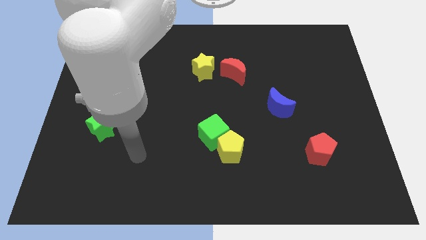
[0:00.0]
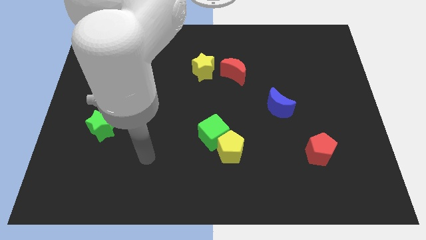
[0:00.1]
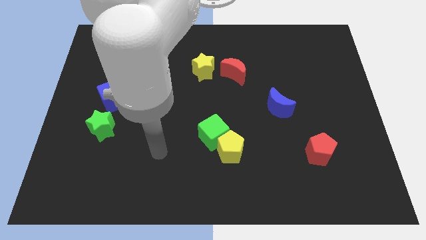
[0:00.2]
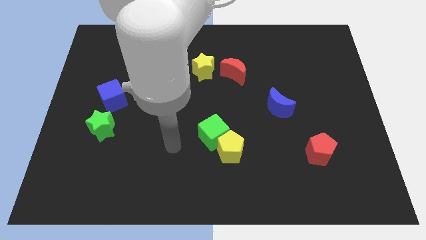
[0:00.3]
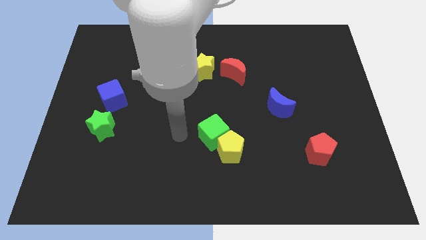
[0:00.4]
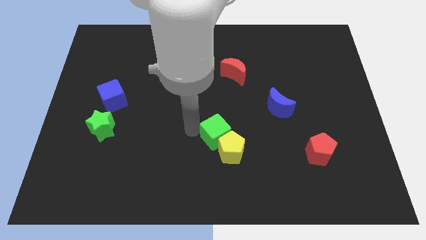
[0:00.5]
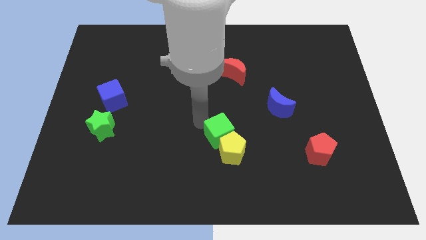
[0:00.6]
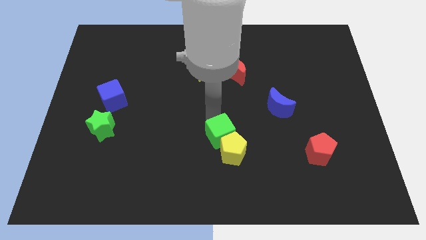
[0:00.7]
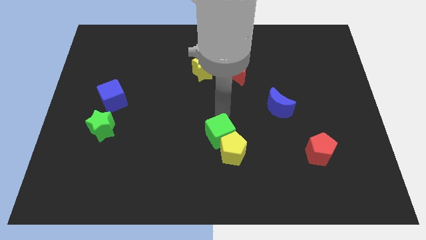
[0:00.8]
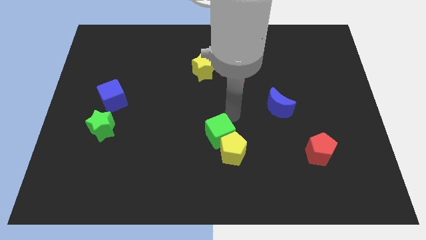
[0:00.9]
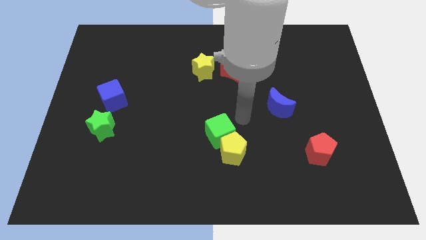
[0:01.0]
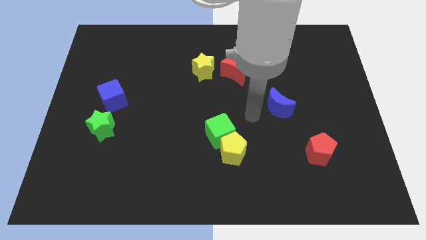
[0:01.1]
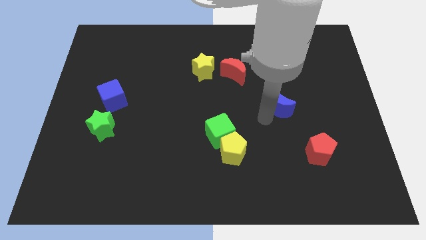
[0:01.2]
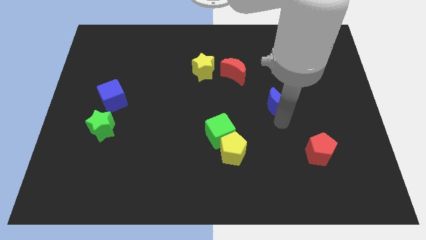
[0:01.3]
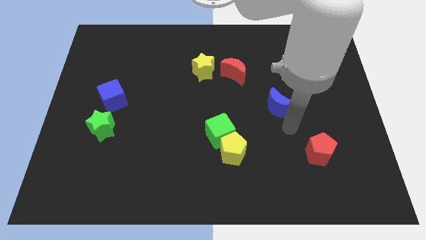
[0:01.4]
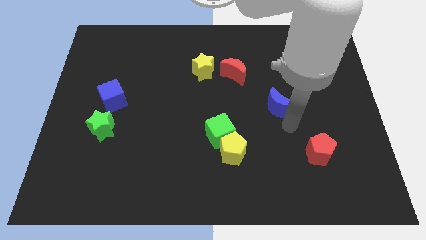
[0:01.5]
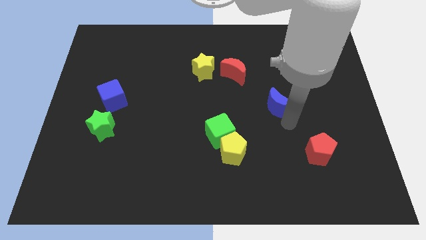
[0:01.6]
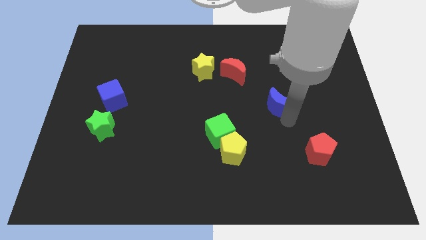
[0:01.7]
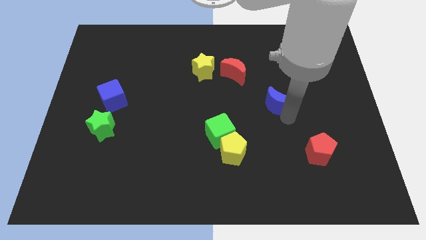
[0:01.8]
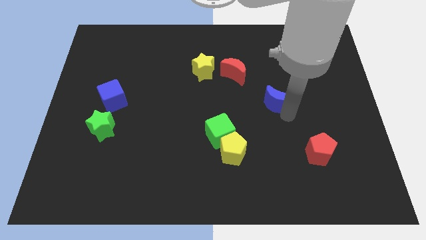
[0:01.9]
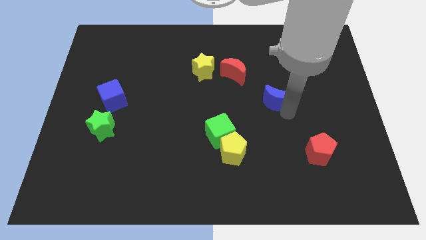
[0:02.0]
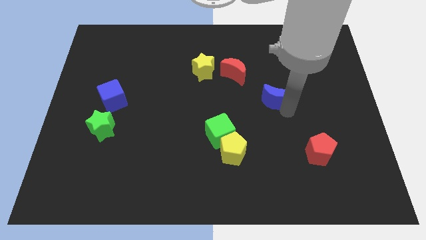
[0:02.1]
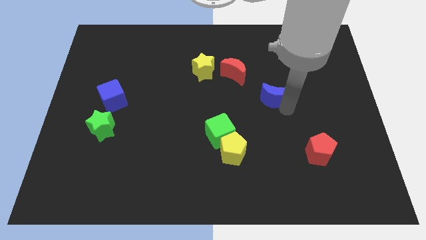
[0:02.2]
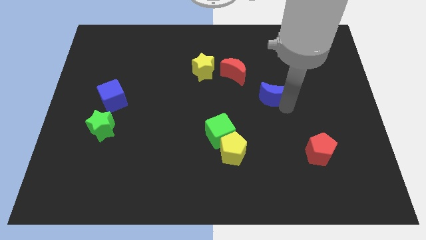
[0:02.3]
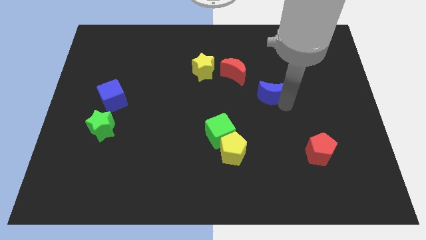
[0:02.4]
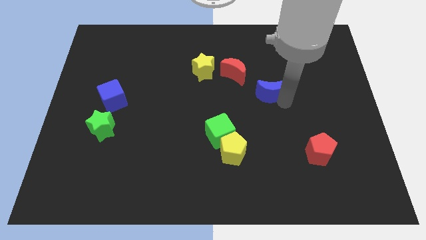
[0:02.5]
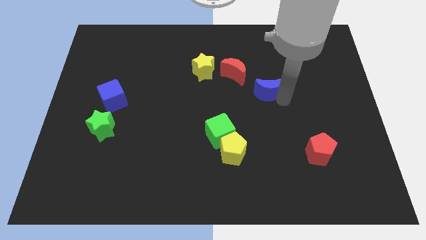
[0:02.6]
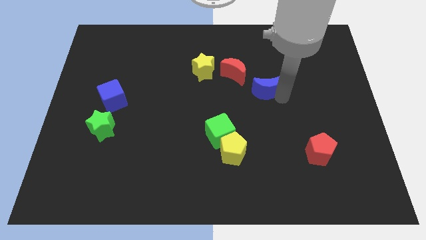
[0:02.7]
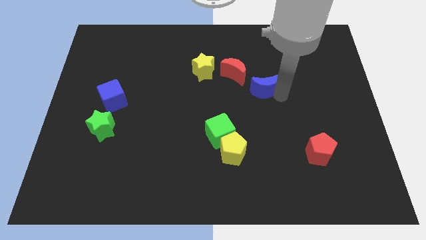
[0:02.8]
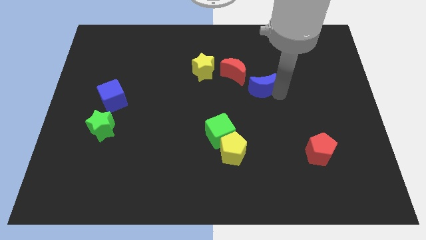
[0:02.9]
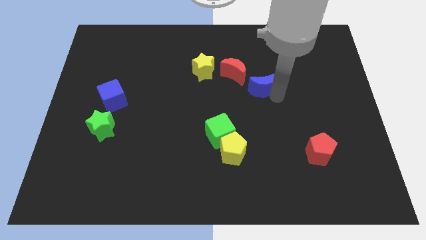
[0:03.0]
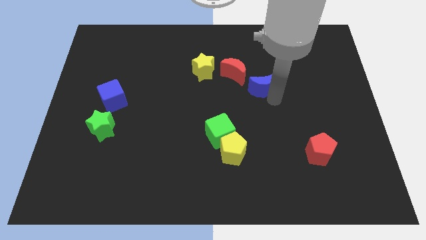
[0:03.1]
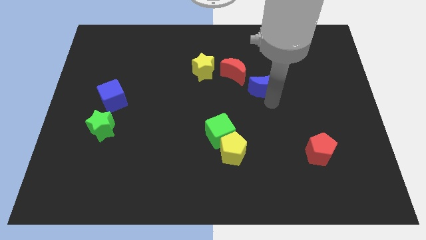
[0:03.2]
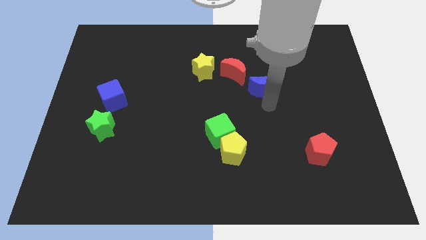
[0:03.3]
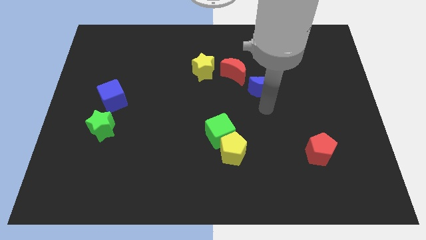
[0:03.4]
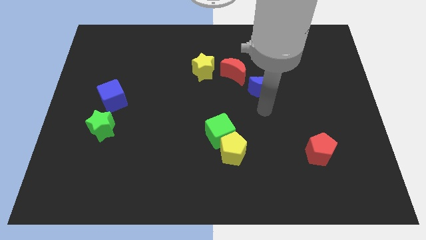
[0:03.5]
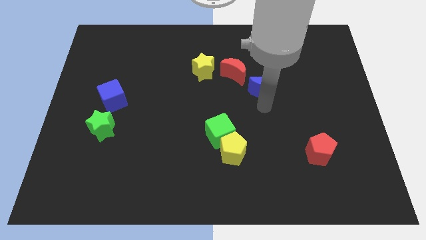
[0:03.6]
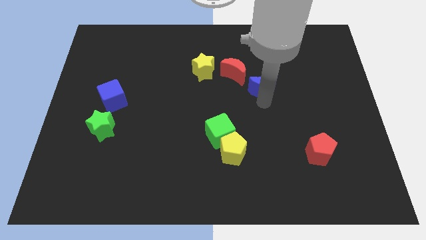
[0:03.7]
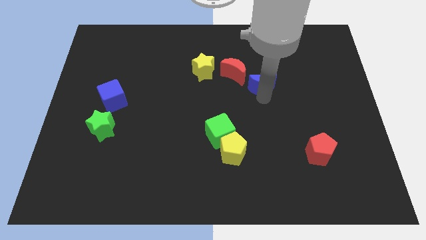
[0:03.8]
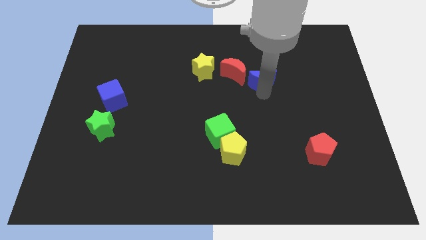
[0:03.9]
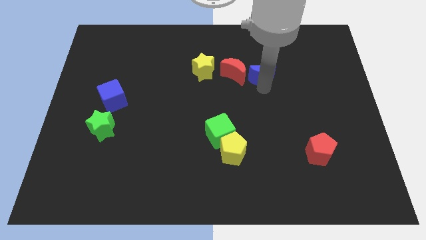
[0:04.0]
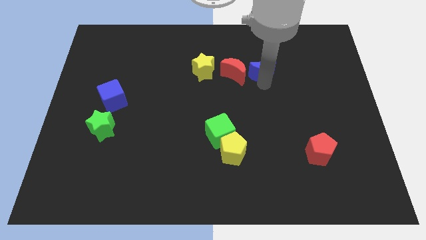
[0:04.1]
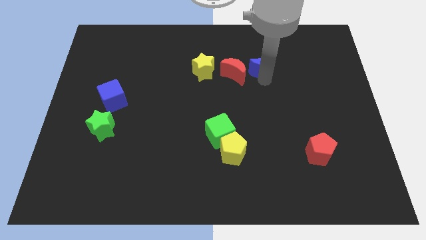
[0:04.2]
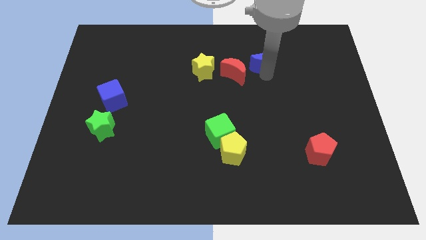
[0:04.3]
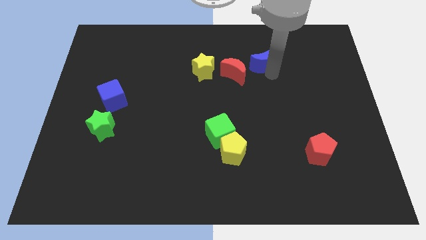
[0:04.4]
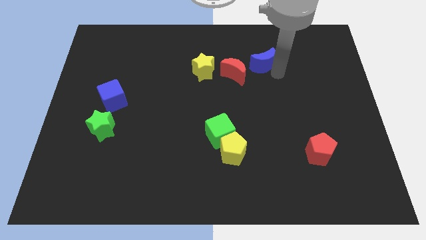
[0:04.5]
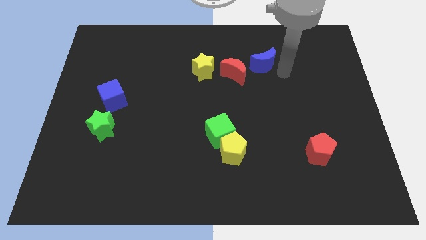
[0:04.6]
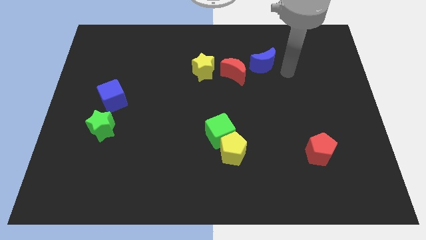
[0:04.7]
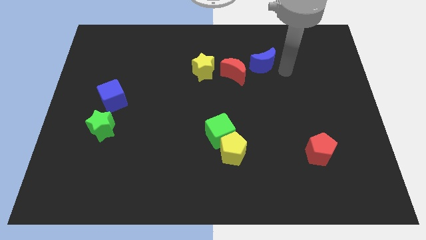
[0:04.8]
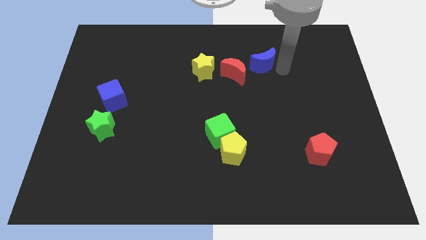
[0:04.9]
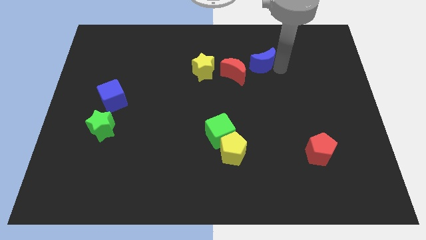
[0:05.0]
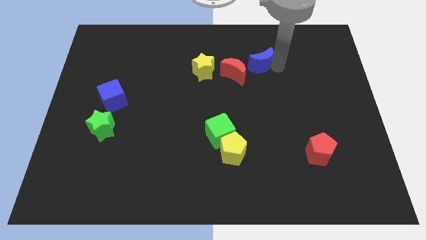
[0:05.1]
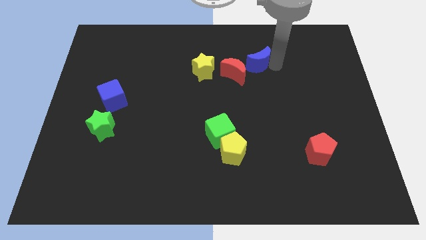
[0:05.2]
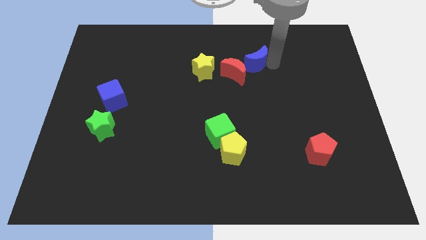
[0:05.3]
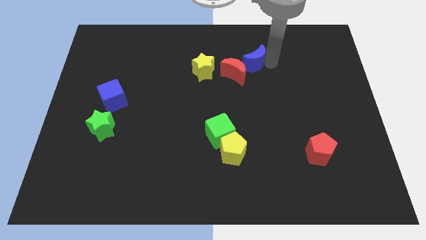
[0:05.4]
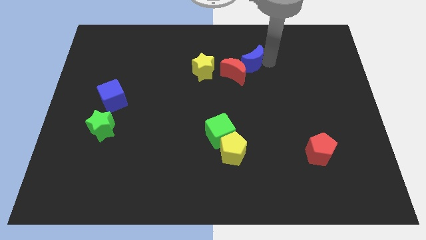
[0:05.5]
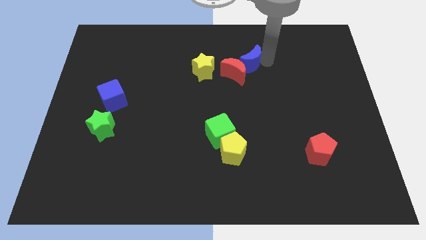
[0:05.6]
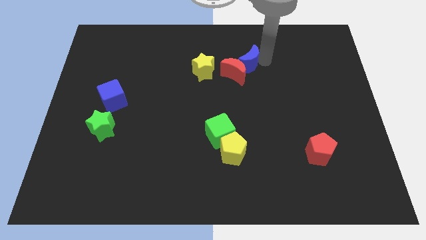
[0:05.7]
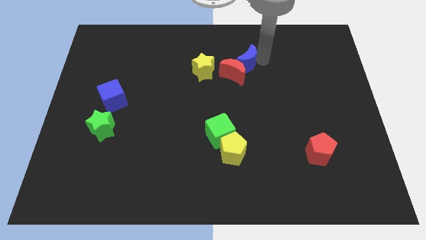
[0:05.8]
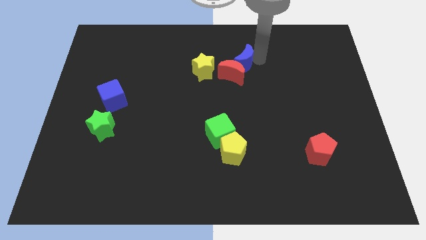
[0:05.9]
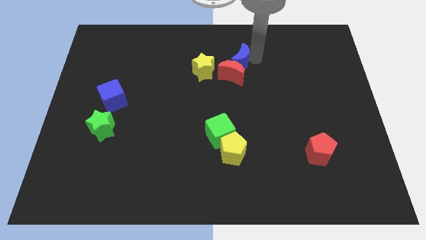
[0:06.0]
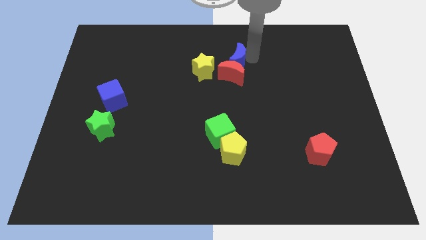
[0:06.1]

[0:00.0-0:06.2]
move the blue moon to the top left of the red moon

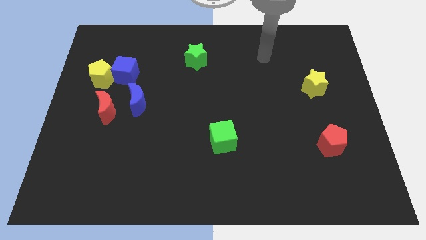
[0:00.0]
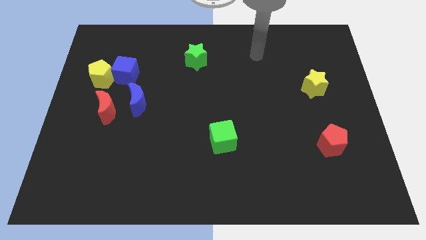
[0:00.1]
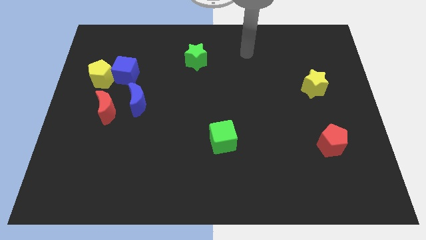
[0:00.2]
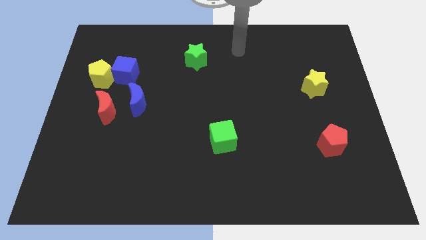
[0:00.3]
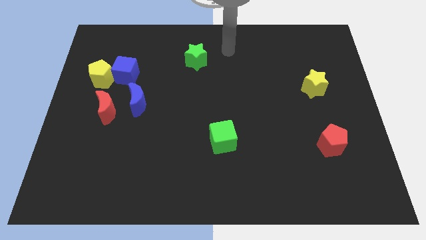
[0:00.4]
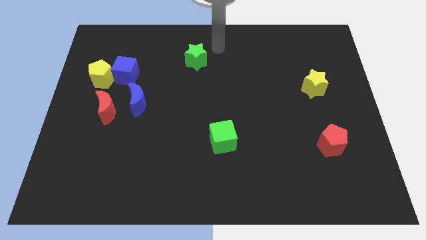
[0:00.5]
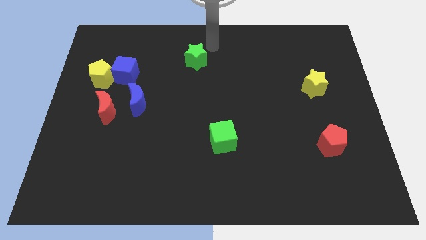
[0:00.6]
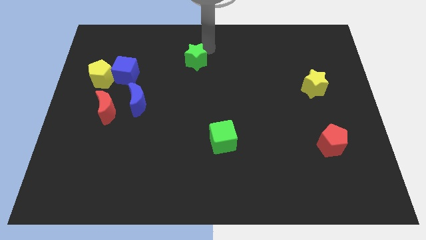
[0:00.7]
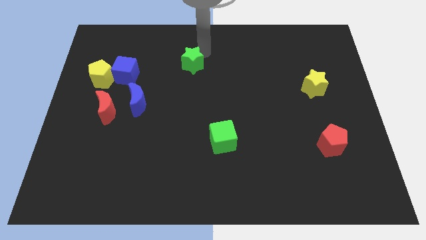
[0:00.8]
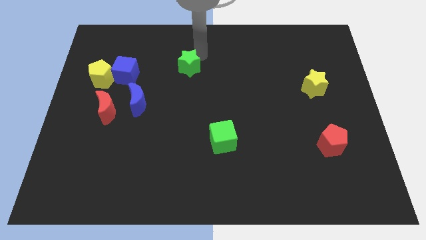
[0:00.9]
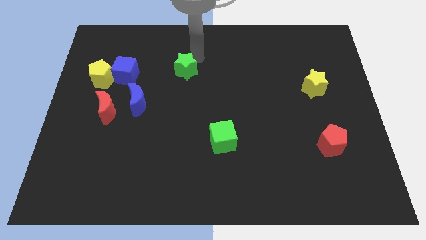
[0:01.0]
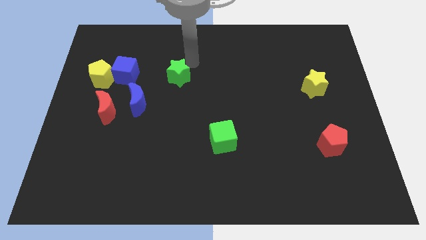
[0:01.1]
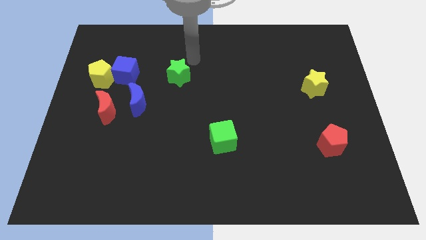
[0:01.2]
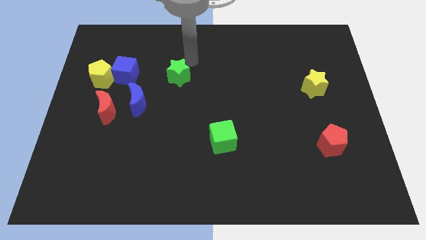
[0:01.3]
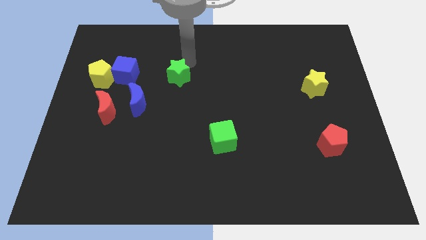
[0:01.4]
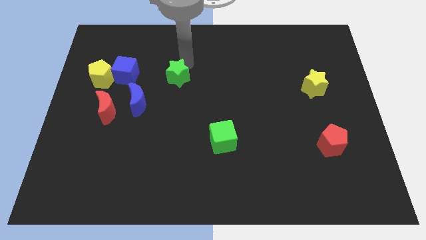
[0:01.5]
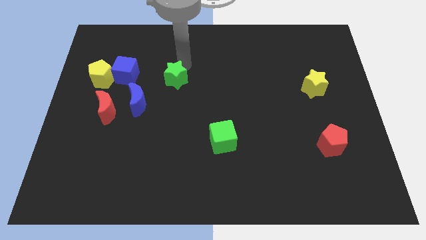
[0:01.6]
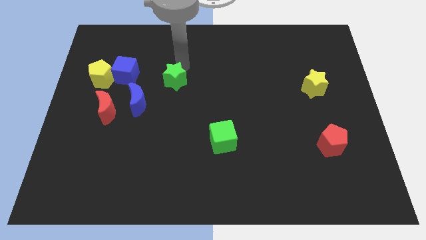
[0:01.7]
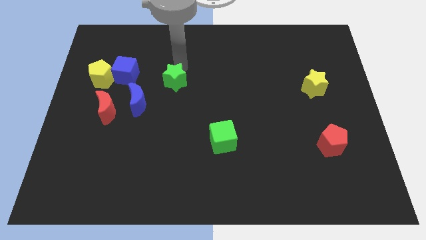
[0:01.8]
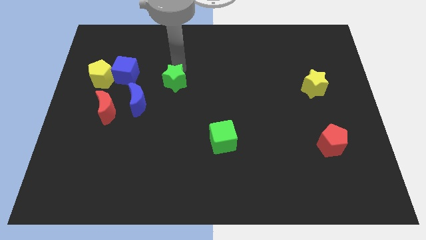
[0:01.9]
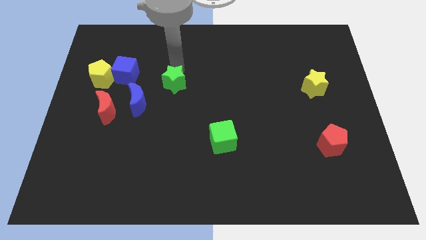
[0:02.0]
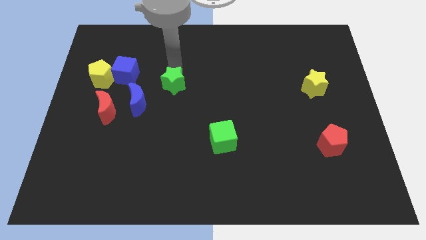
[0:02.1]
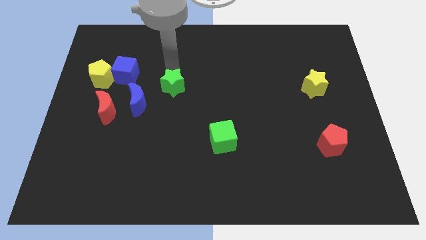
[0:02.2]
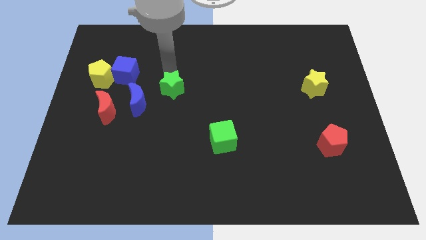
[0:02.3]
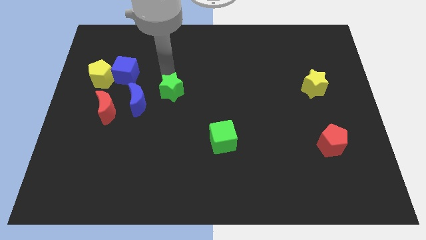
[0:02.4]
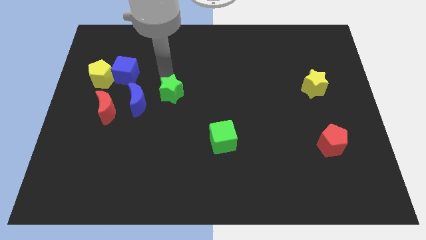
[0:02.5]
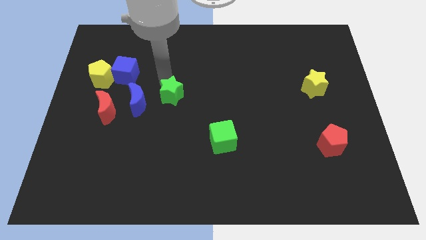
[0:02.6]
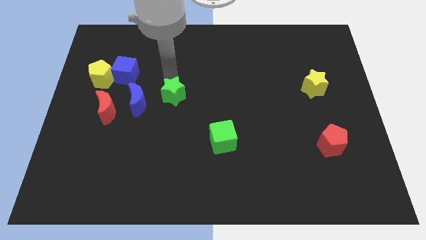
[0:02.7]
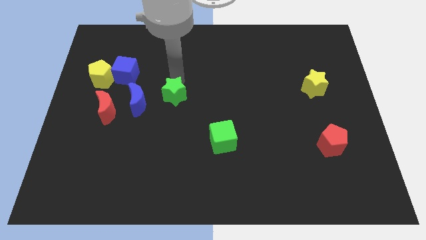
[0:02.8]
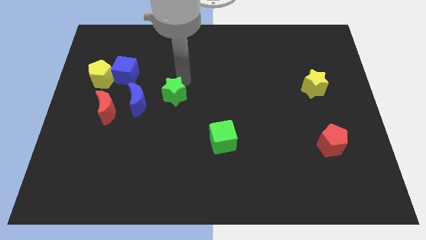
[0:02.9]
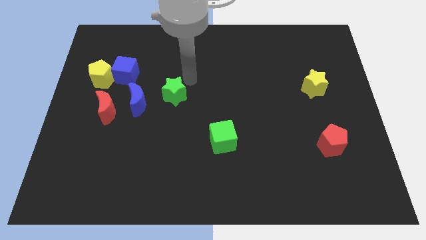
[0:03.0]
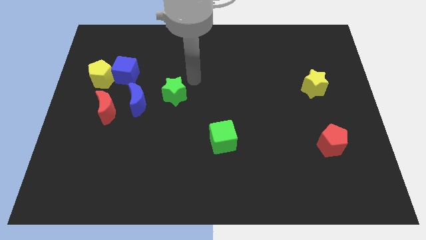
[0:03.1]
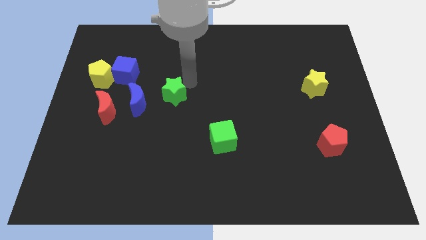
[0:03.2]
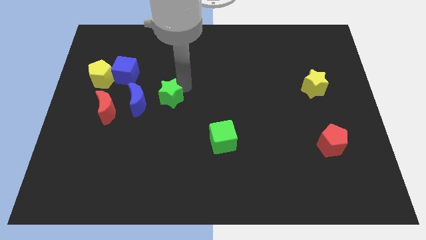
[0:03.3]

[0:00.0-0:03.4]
push the green star just right of the red moon
